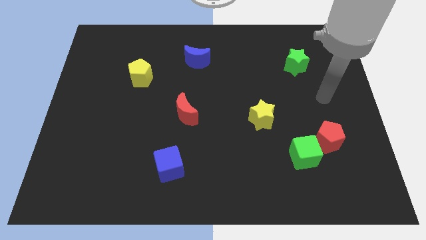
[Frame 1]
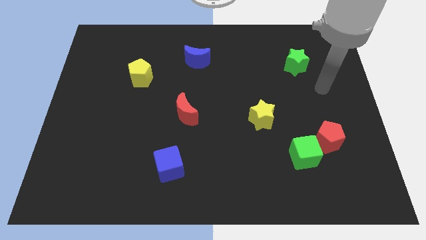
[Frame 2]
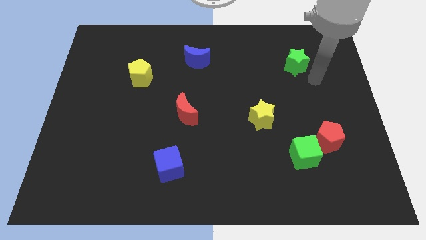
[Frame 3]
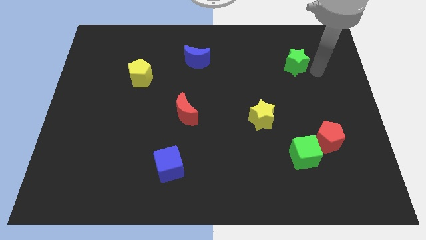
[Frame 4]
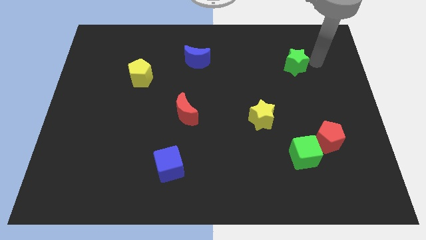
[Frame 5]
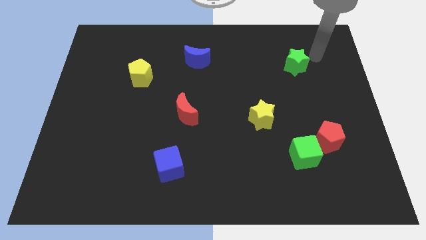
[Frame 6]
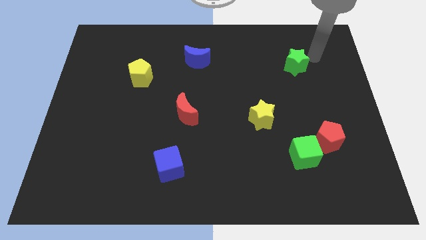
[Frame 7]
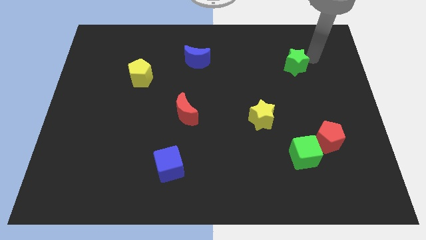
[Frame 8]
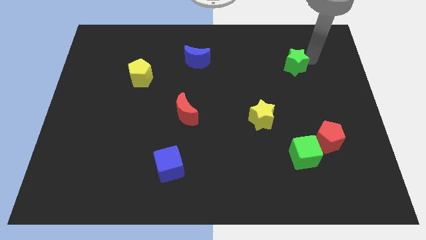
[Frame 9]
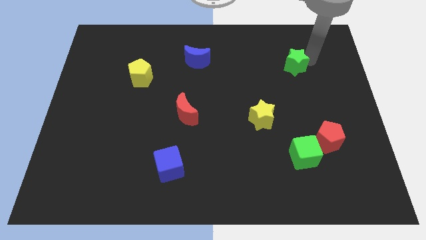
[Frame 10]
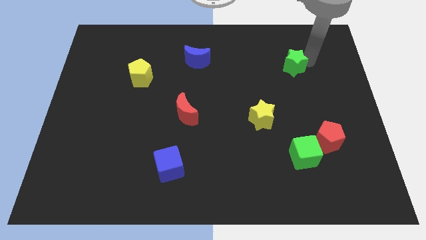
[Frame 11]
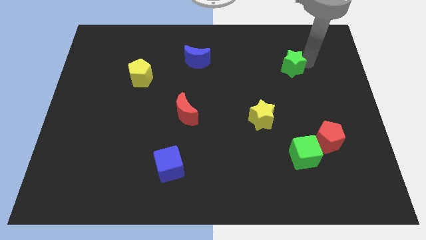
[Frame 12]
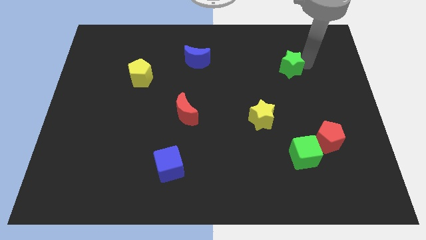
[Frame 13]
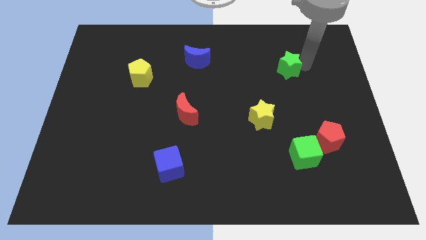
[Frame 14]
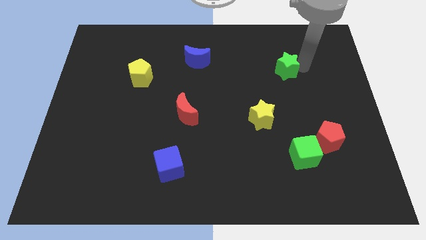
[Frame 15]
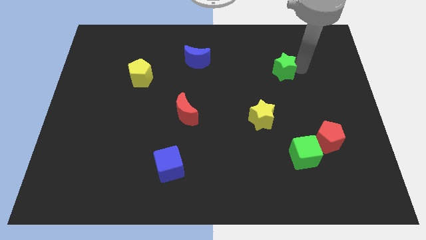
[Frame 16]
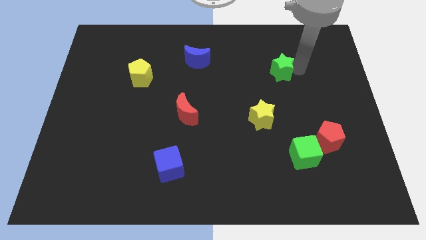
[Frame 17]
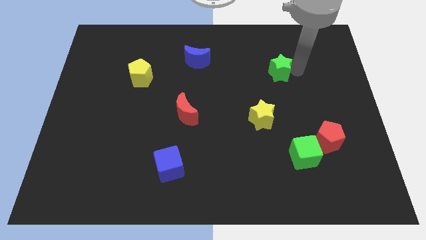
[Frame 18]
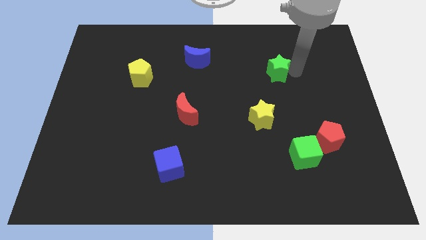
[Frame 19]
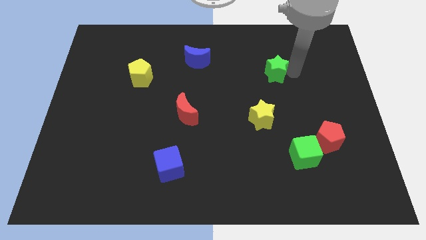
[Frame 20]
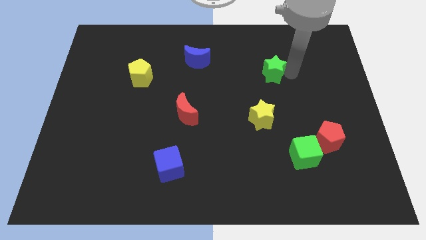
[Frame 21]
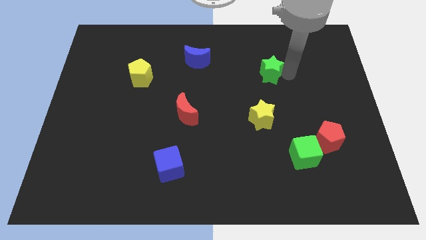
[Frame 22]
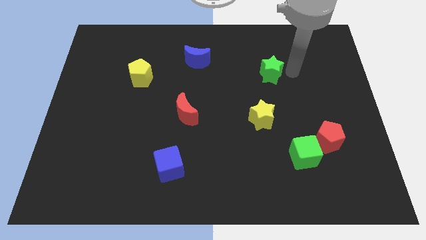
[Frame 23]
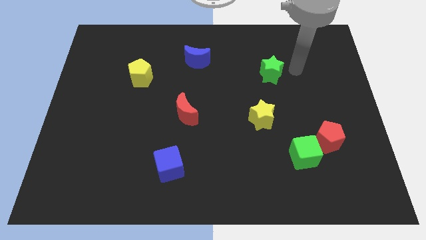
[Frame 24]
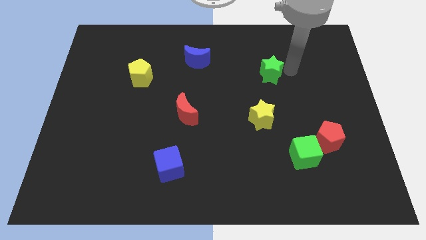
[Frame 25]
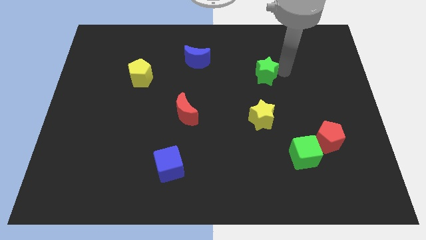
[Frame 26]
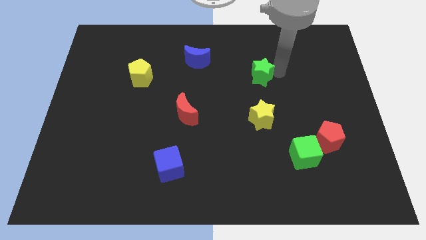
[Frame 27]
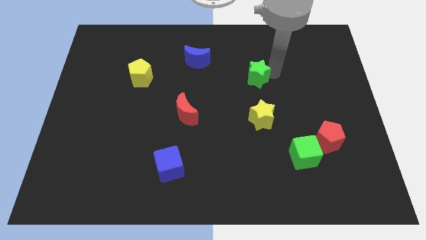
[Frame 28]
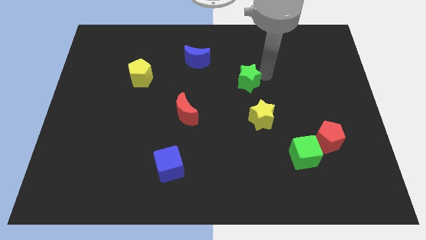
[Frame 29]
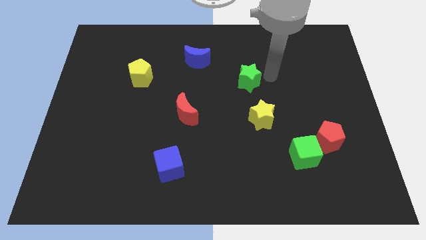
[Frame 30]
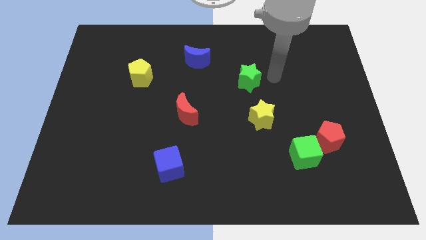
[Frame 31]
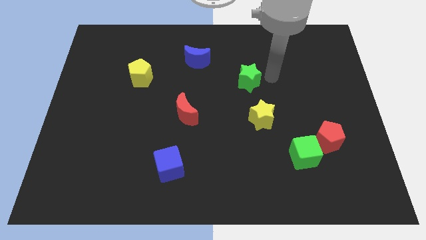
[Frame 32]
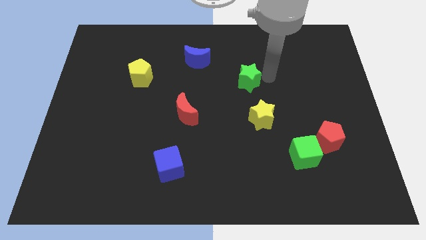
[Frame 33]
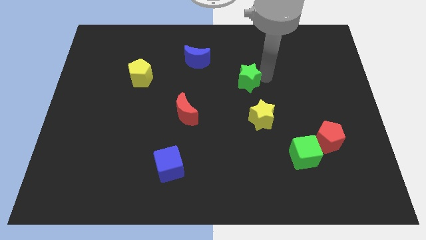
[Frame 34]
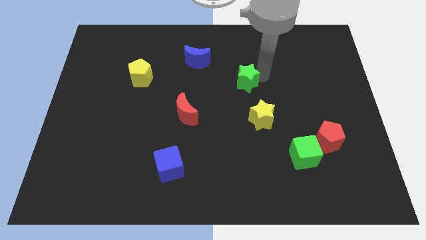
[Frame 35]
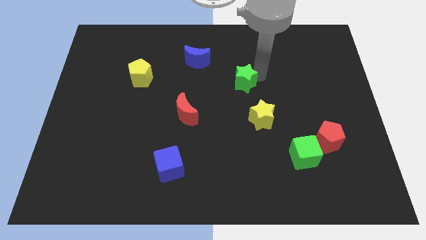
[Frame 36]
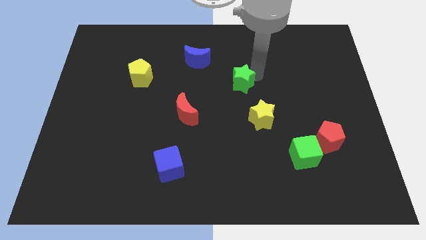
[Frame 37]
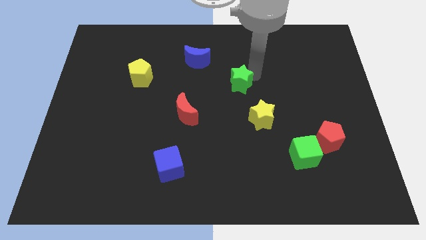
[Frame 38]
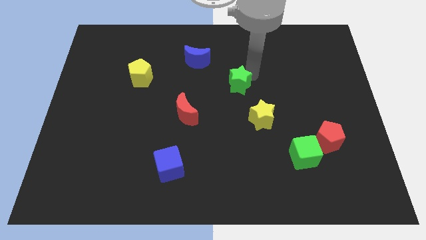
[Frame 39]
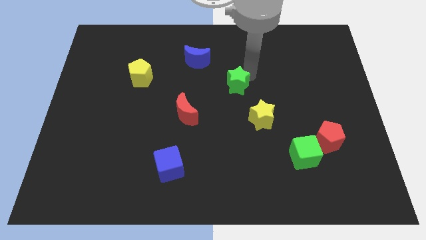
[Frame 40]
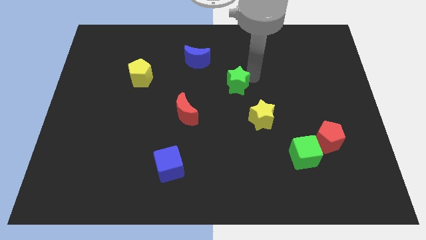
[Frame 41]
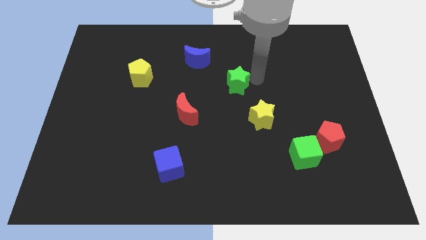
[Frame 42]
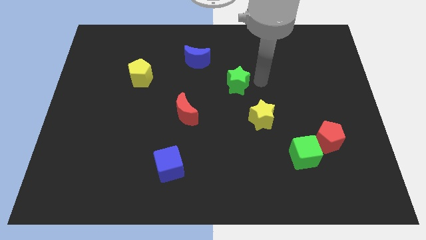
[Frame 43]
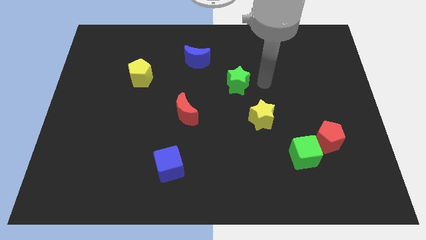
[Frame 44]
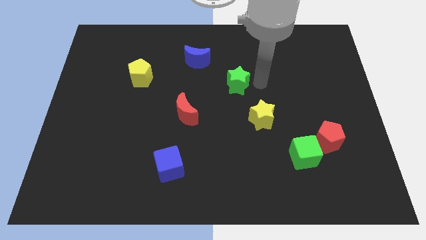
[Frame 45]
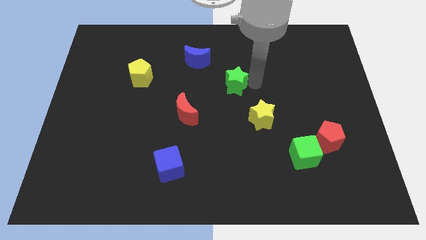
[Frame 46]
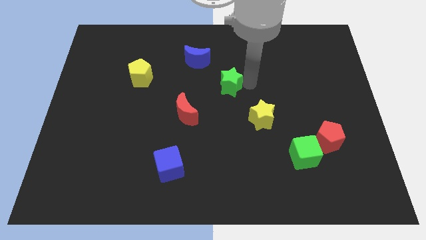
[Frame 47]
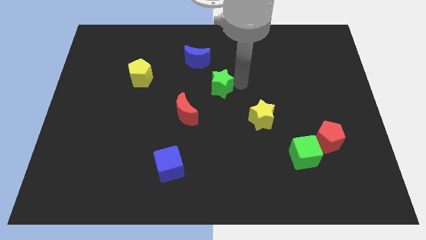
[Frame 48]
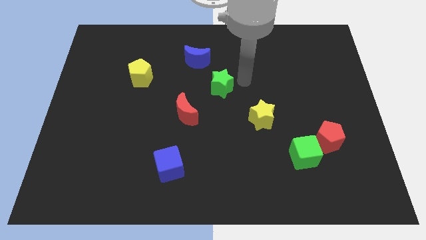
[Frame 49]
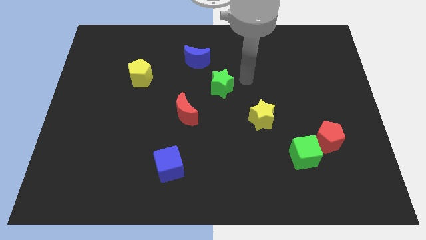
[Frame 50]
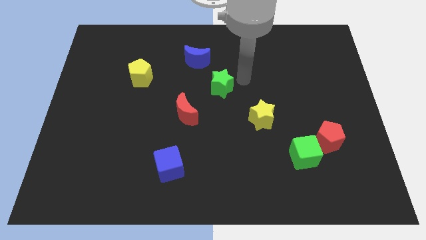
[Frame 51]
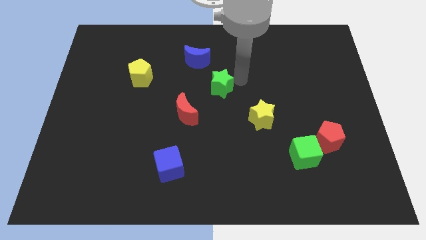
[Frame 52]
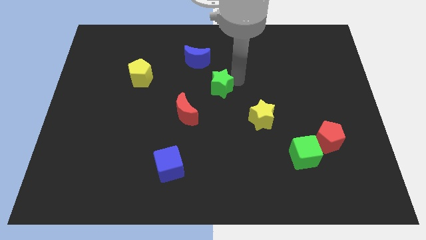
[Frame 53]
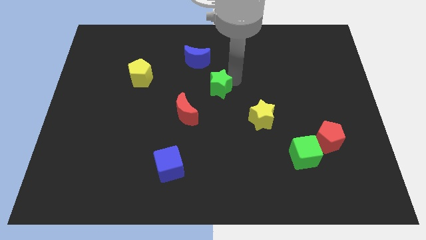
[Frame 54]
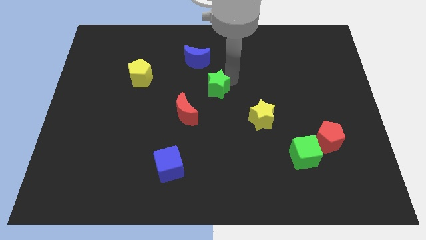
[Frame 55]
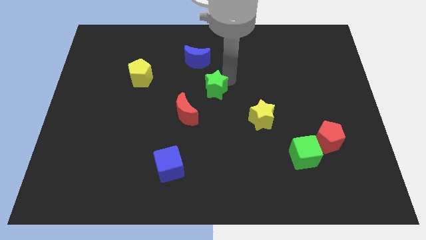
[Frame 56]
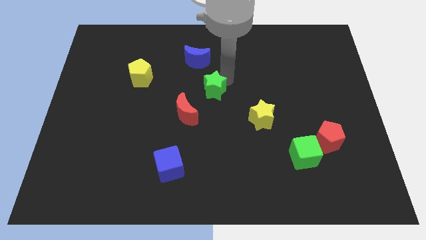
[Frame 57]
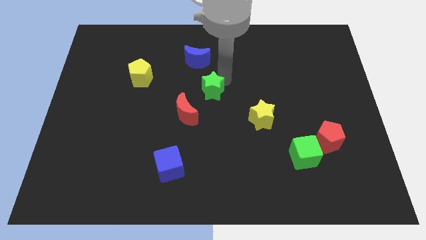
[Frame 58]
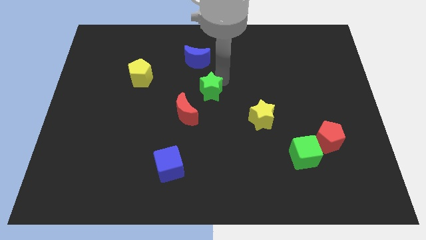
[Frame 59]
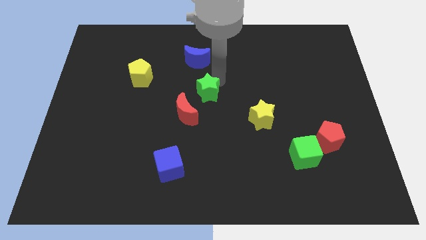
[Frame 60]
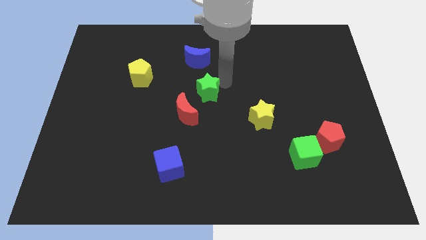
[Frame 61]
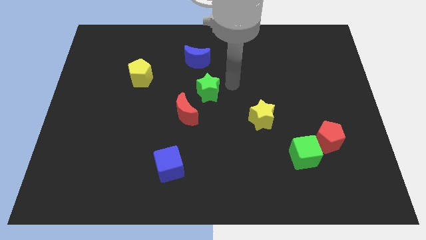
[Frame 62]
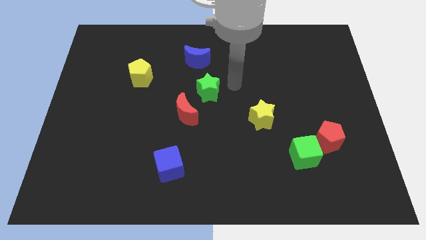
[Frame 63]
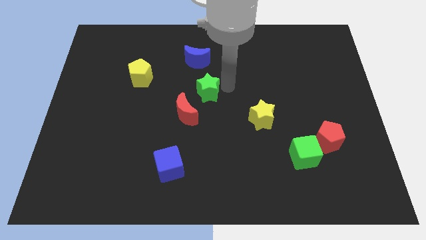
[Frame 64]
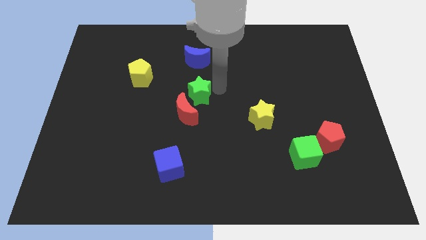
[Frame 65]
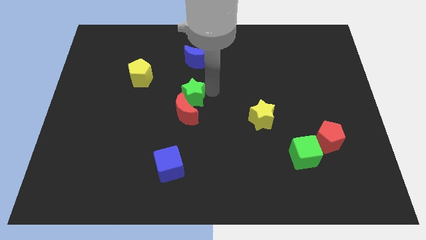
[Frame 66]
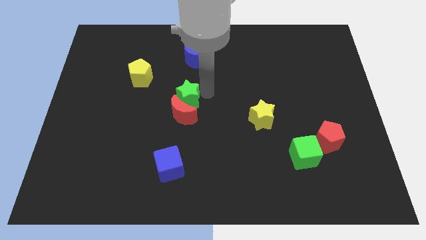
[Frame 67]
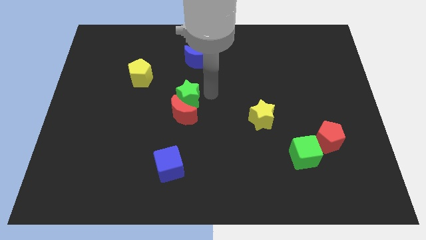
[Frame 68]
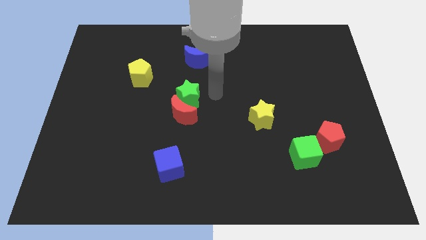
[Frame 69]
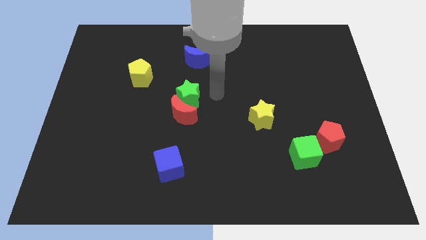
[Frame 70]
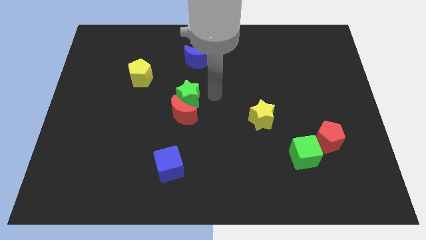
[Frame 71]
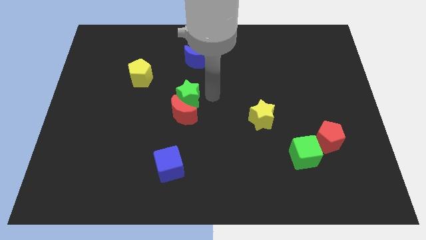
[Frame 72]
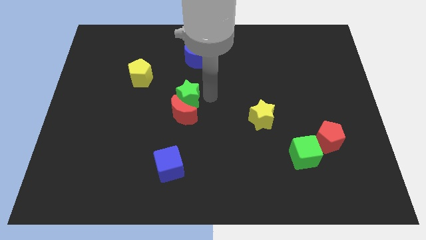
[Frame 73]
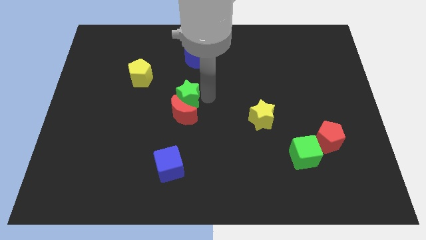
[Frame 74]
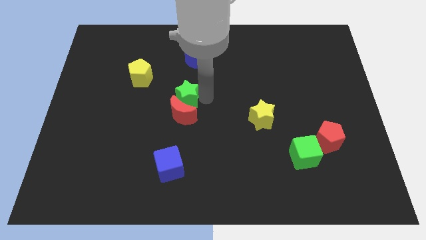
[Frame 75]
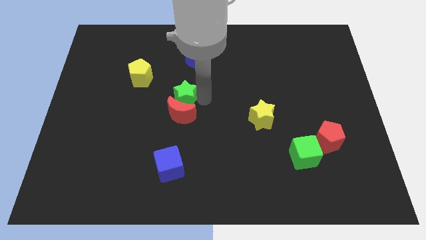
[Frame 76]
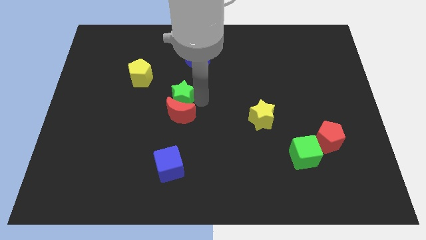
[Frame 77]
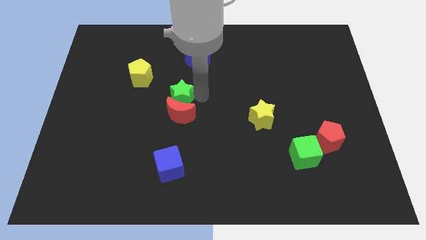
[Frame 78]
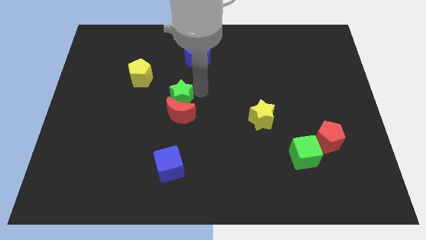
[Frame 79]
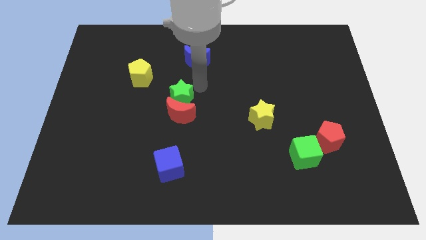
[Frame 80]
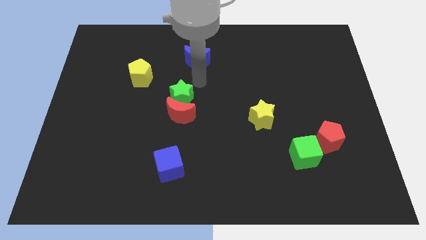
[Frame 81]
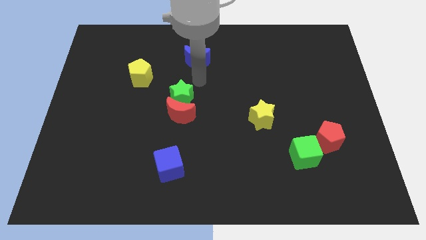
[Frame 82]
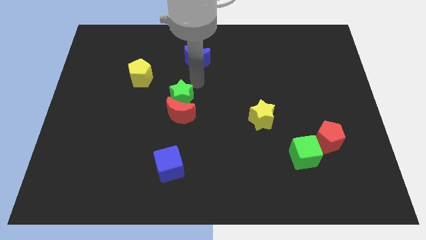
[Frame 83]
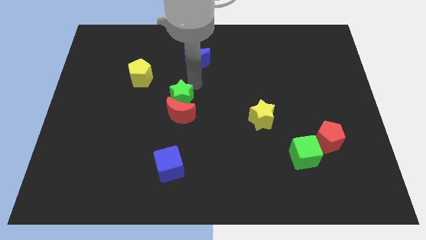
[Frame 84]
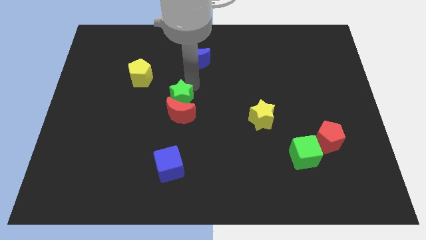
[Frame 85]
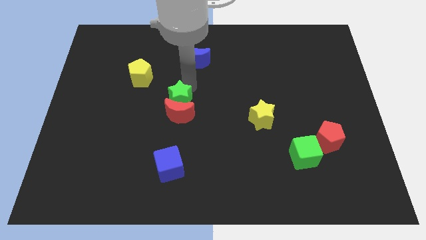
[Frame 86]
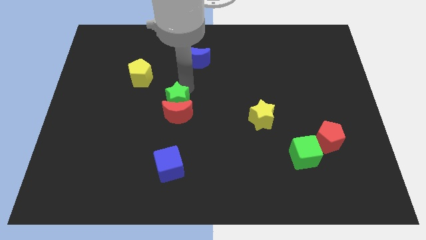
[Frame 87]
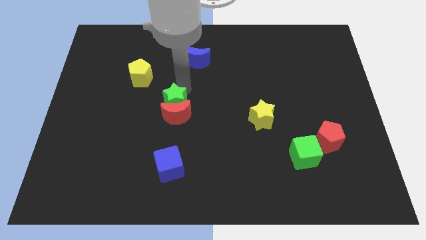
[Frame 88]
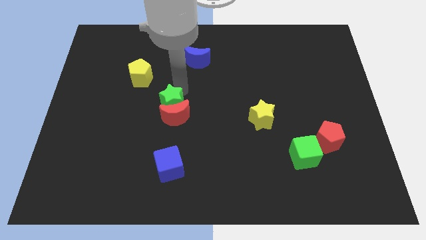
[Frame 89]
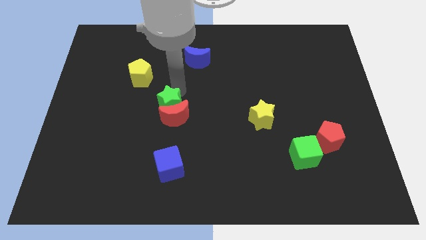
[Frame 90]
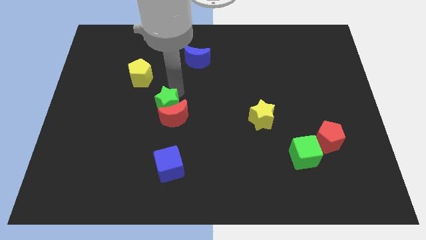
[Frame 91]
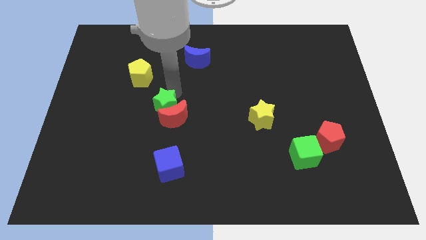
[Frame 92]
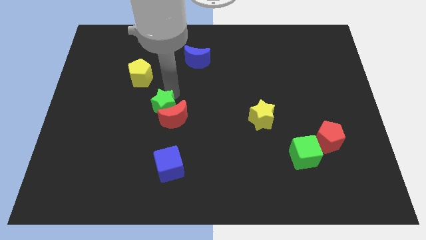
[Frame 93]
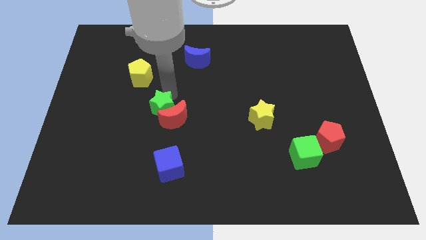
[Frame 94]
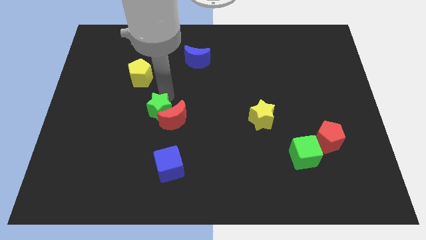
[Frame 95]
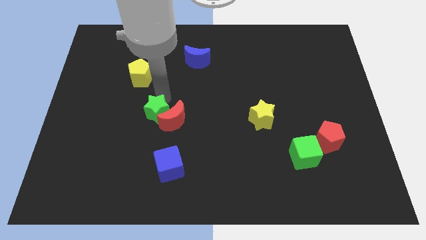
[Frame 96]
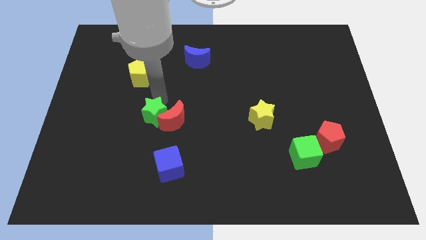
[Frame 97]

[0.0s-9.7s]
put the green star to the bottom left of the red moon
